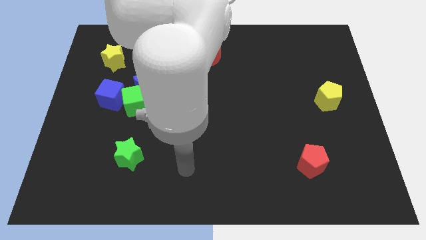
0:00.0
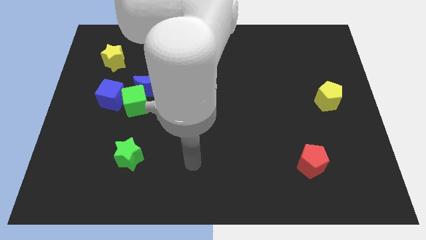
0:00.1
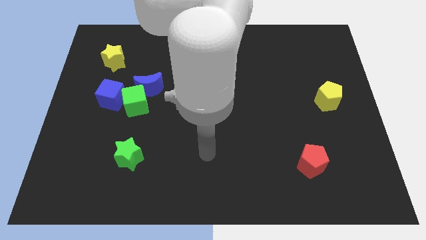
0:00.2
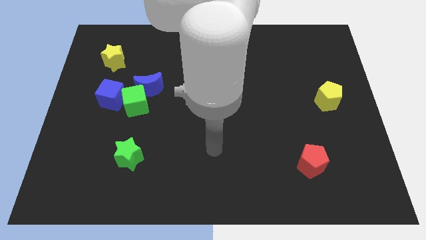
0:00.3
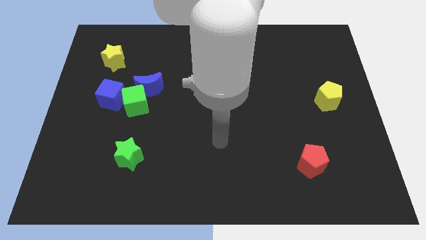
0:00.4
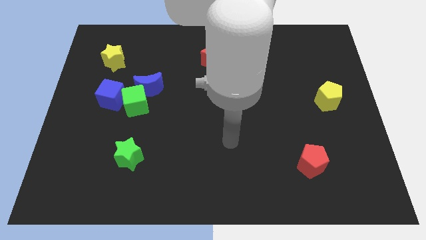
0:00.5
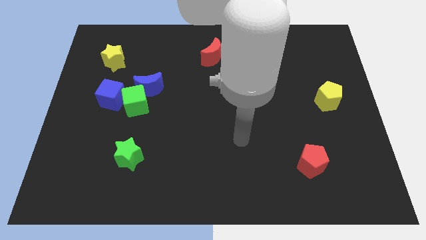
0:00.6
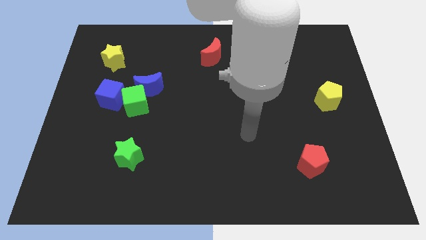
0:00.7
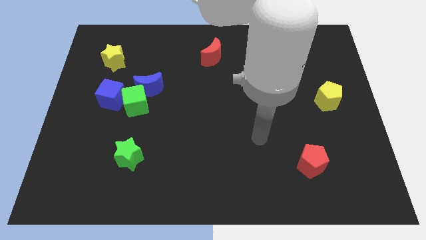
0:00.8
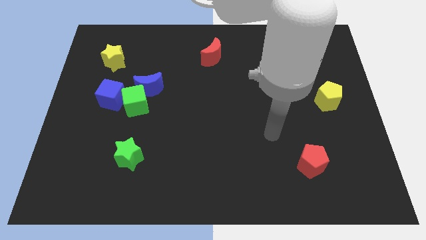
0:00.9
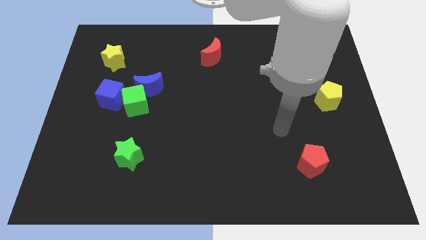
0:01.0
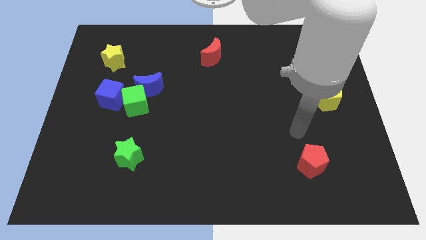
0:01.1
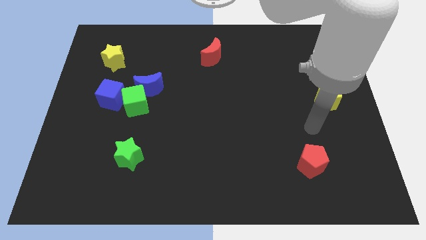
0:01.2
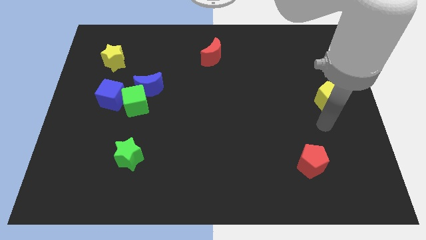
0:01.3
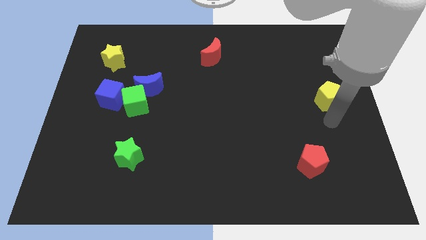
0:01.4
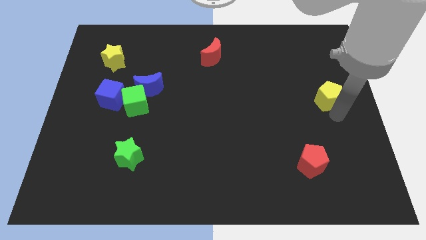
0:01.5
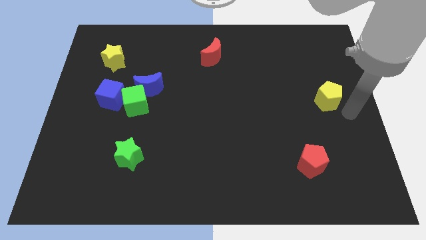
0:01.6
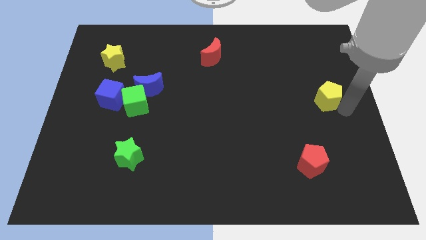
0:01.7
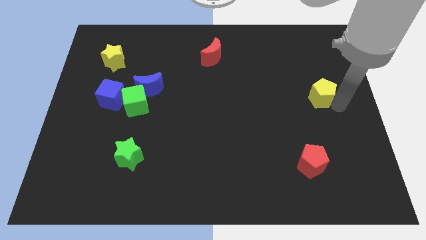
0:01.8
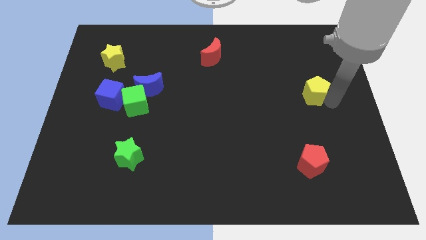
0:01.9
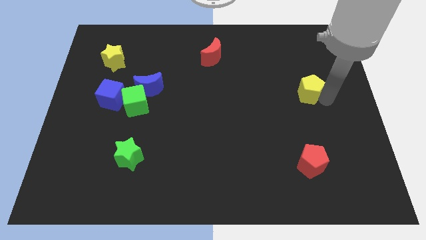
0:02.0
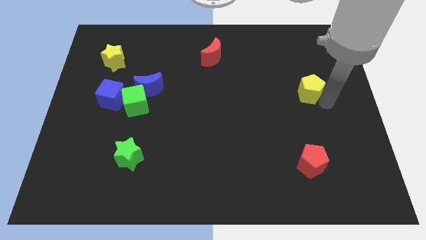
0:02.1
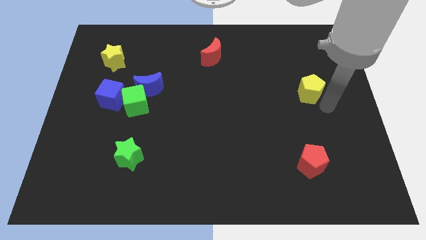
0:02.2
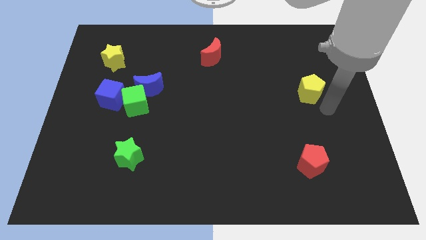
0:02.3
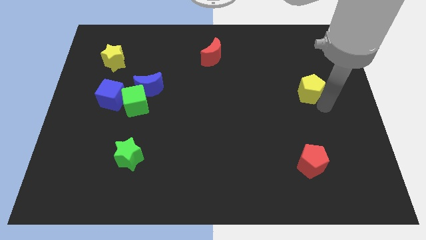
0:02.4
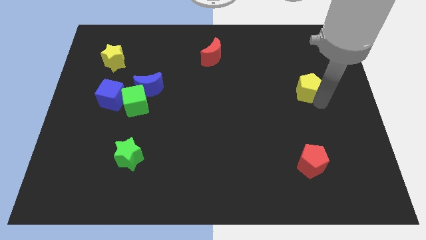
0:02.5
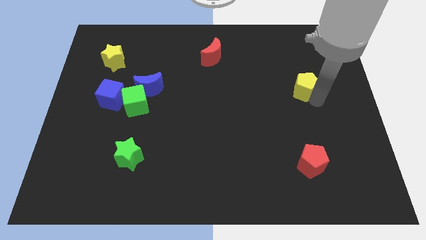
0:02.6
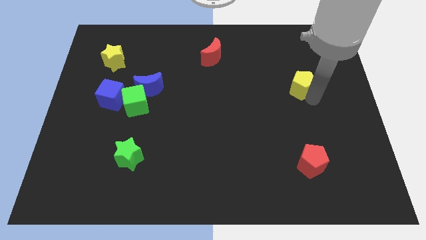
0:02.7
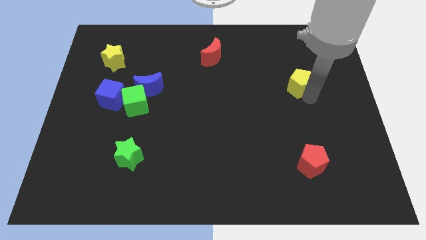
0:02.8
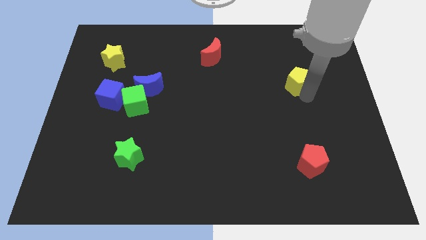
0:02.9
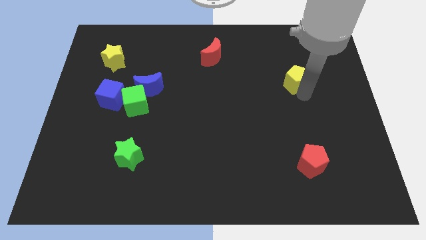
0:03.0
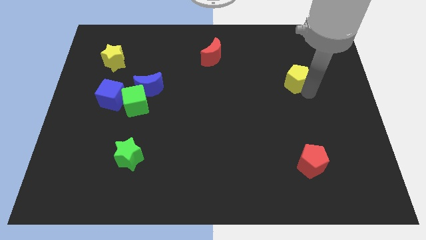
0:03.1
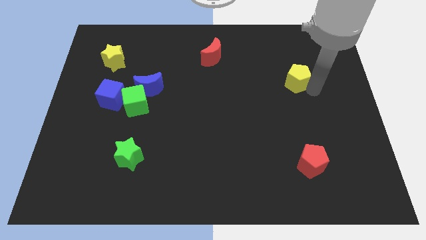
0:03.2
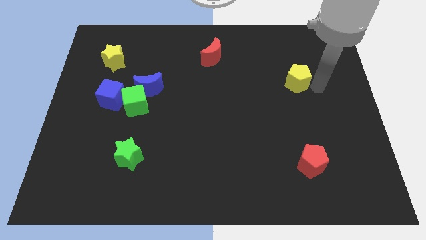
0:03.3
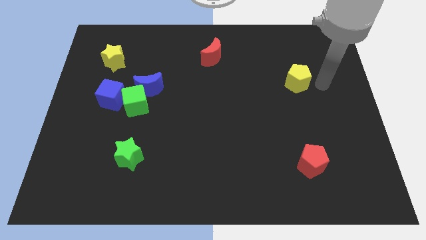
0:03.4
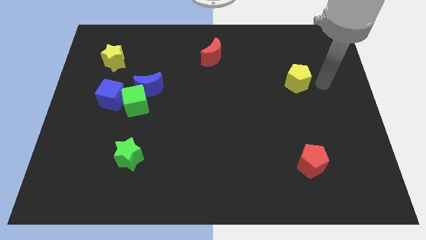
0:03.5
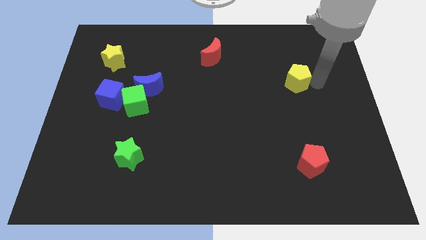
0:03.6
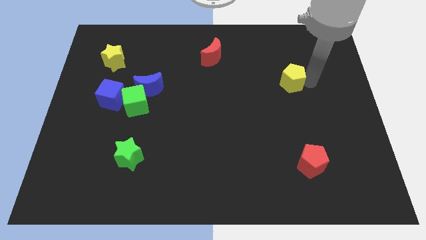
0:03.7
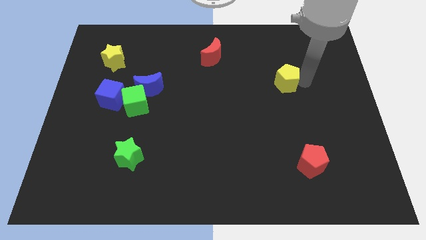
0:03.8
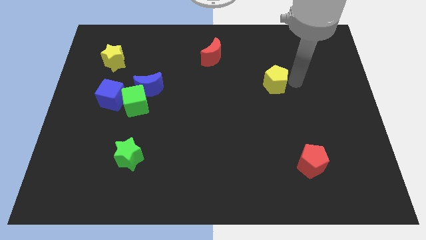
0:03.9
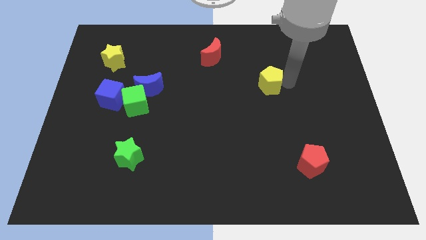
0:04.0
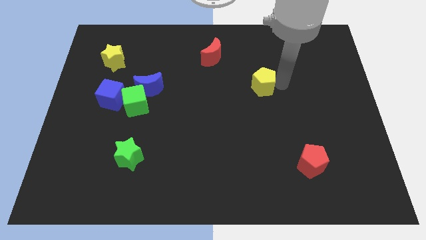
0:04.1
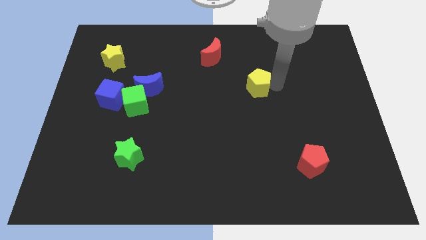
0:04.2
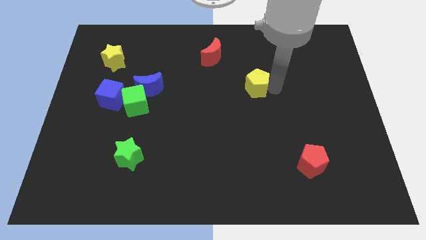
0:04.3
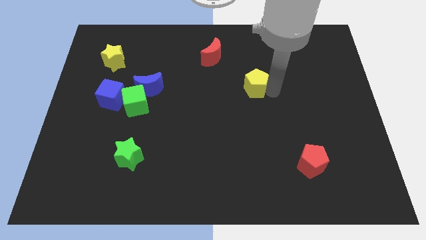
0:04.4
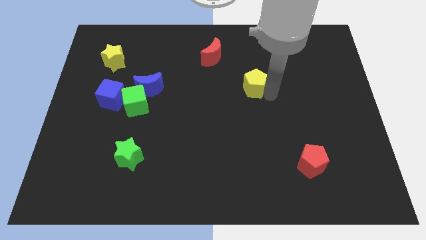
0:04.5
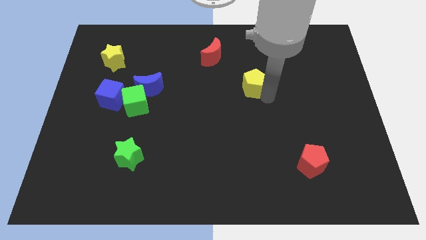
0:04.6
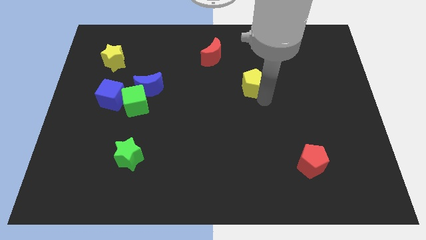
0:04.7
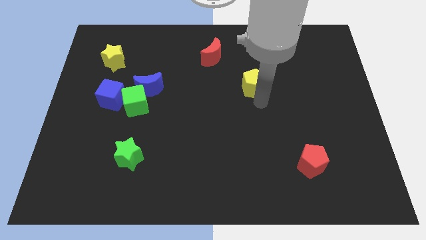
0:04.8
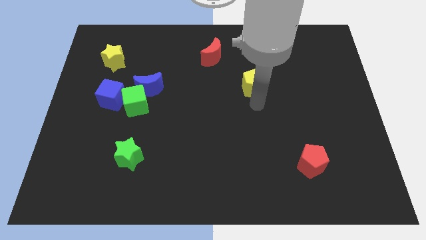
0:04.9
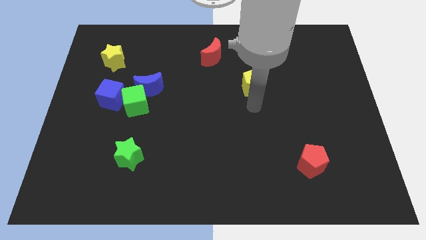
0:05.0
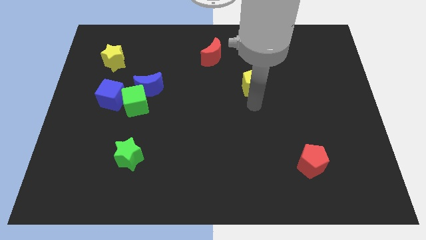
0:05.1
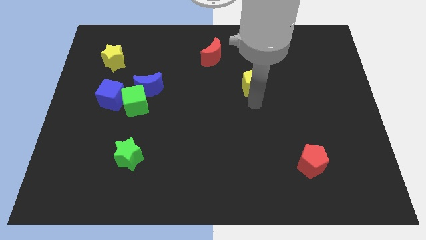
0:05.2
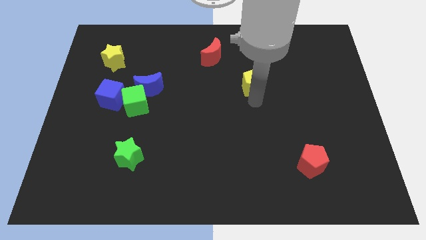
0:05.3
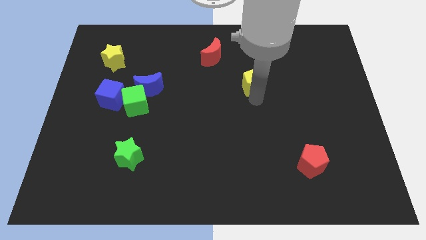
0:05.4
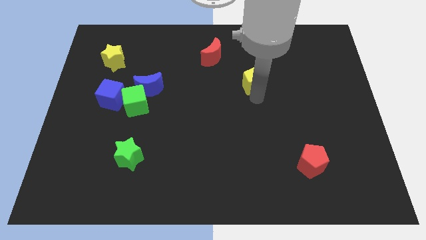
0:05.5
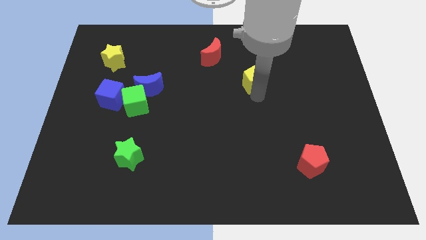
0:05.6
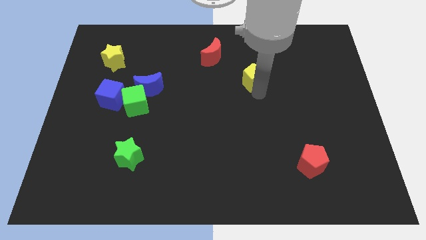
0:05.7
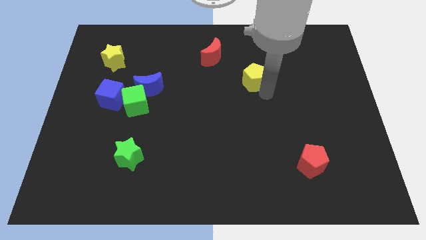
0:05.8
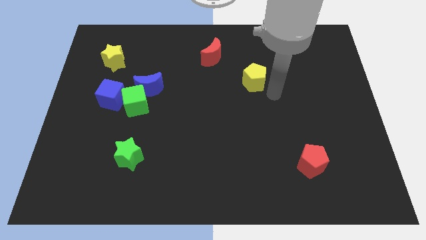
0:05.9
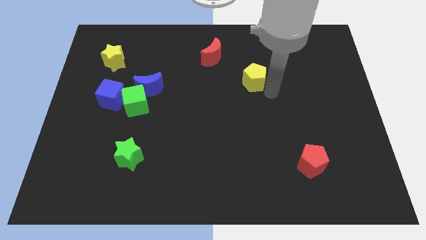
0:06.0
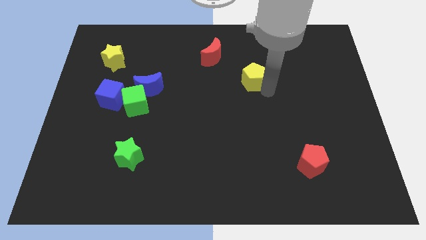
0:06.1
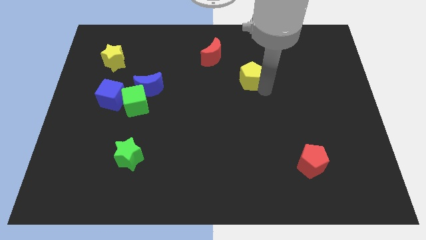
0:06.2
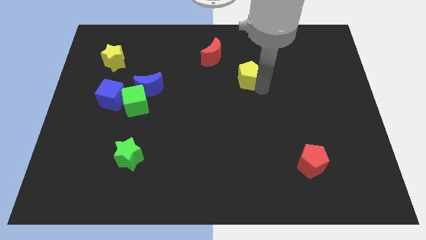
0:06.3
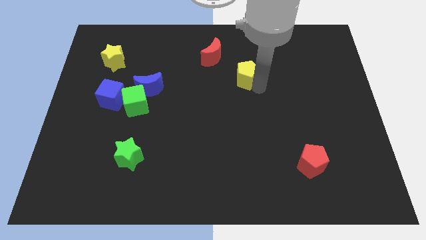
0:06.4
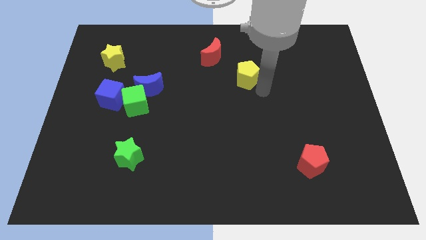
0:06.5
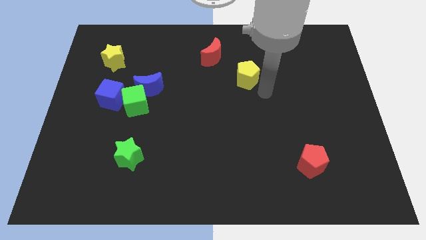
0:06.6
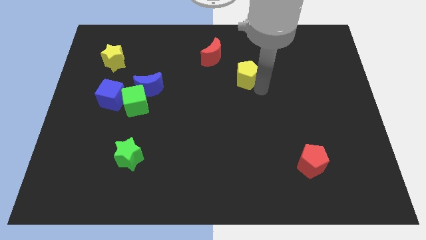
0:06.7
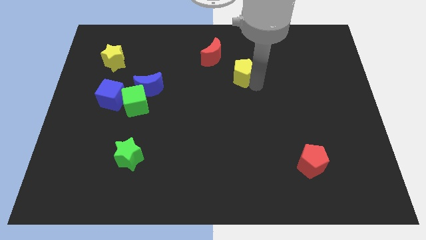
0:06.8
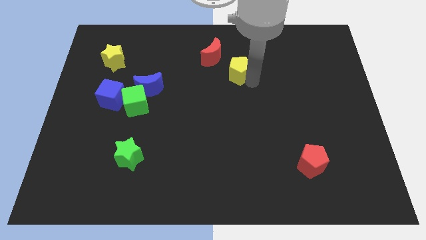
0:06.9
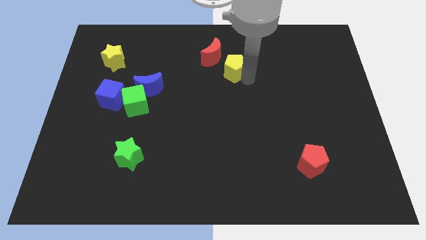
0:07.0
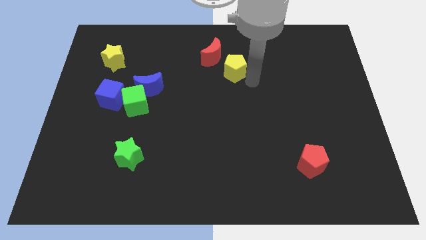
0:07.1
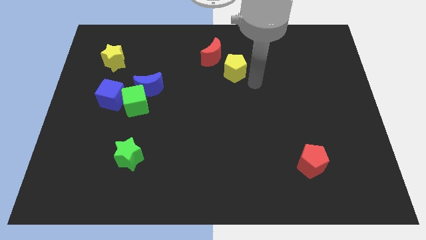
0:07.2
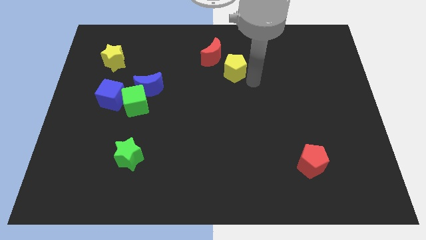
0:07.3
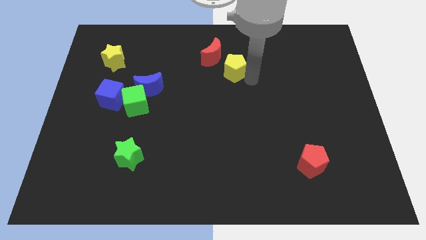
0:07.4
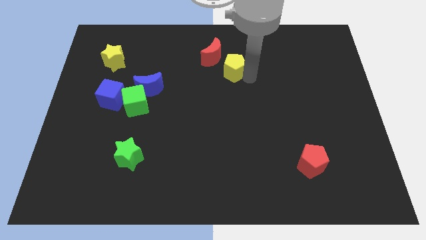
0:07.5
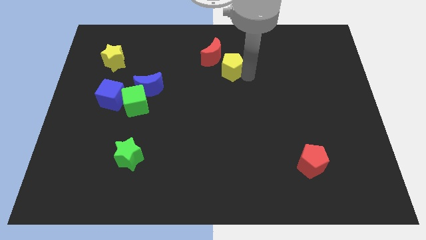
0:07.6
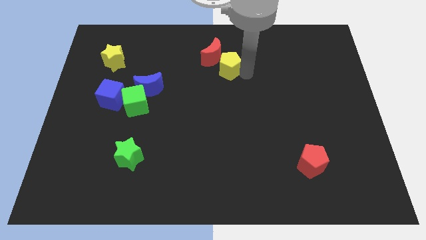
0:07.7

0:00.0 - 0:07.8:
slide the yellow pentagon towards the red moon
